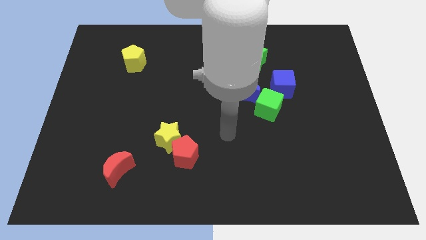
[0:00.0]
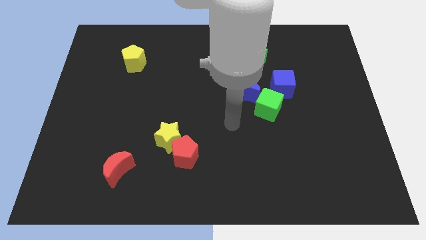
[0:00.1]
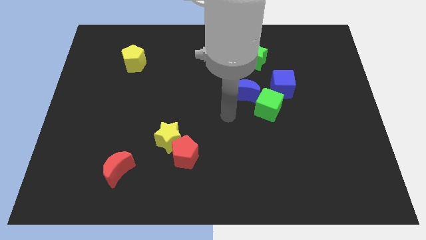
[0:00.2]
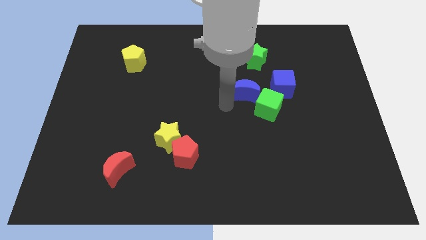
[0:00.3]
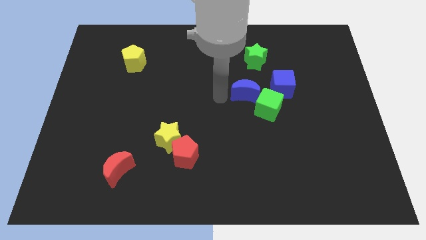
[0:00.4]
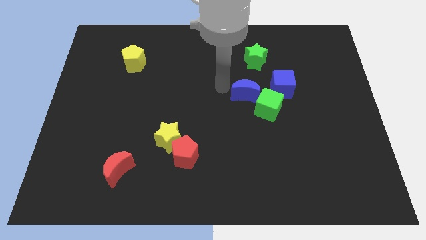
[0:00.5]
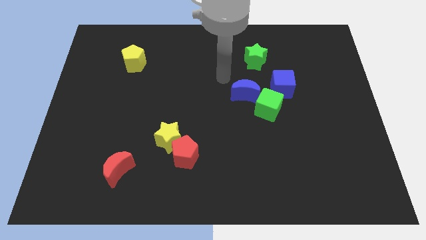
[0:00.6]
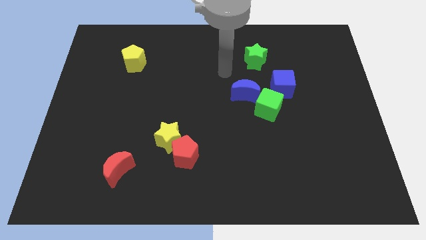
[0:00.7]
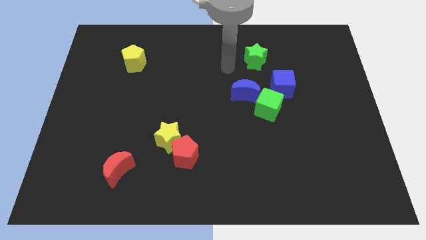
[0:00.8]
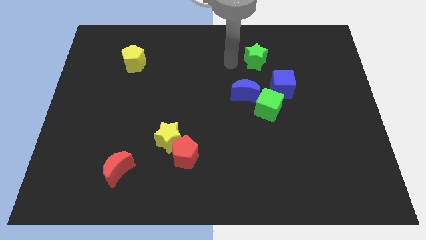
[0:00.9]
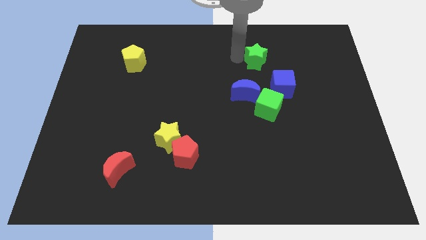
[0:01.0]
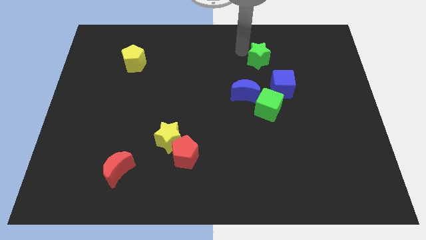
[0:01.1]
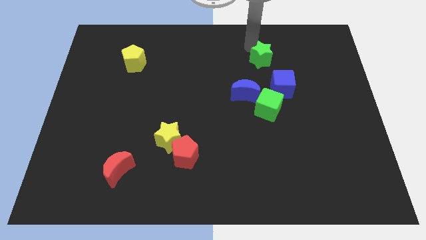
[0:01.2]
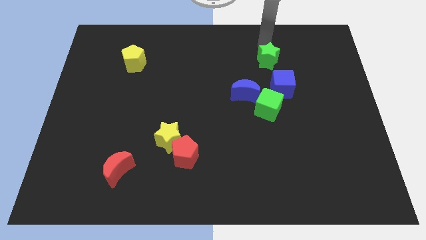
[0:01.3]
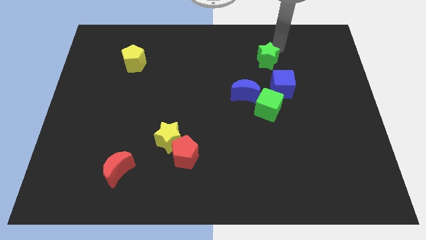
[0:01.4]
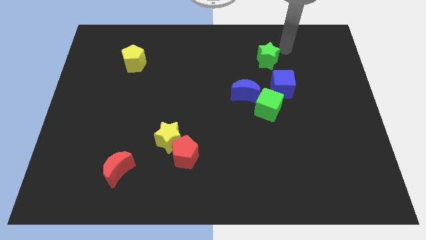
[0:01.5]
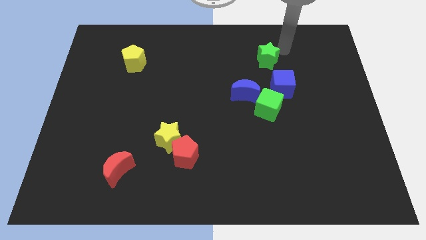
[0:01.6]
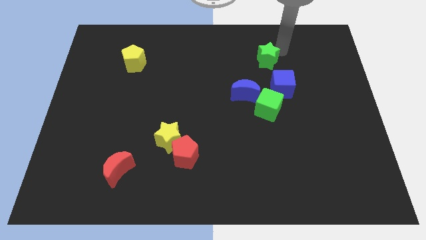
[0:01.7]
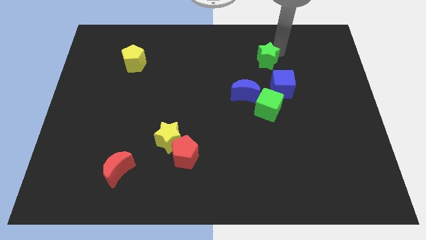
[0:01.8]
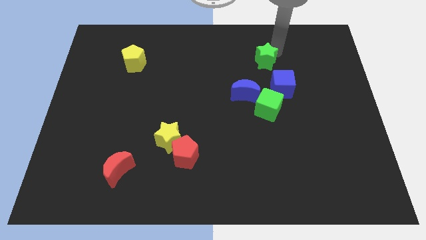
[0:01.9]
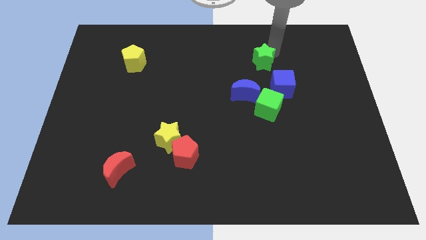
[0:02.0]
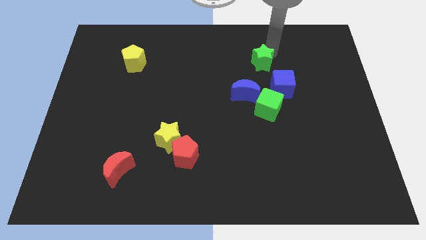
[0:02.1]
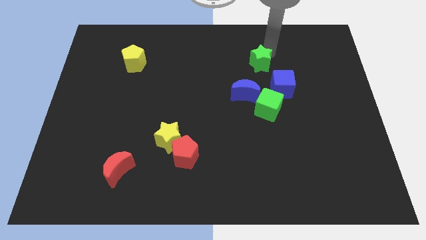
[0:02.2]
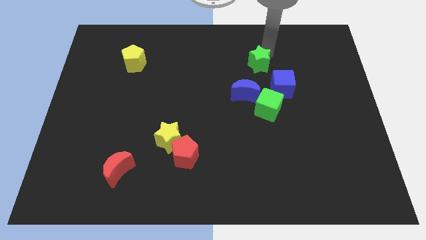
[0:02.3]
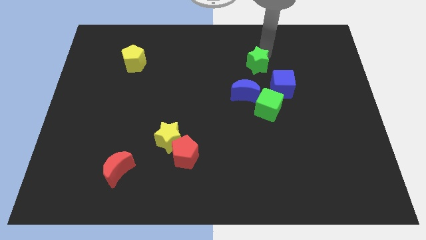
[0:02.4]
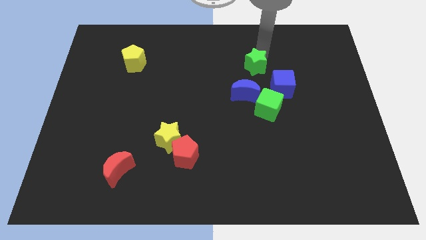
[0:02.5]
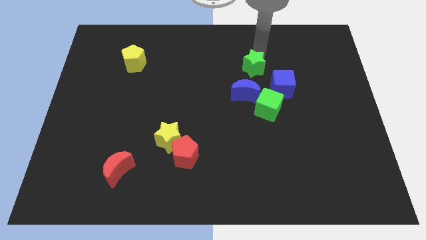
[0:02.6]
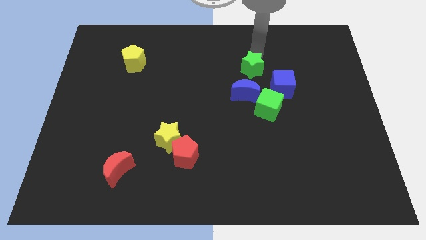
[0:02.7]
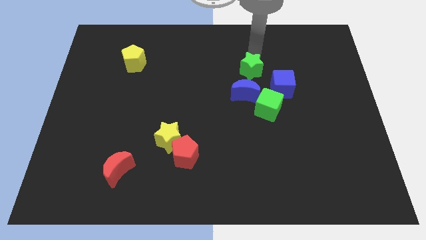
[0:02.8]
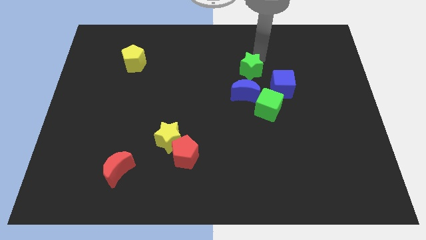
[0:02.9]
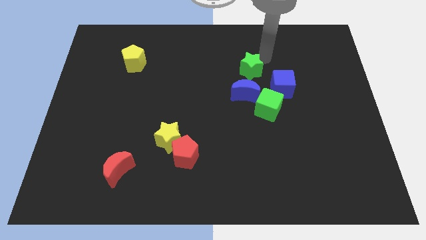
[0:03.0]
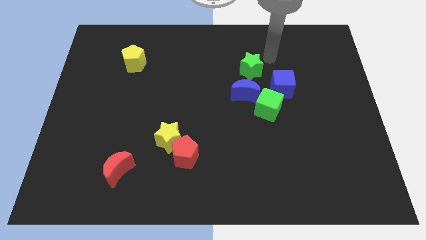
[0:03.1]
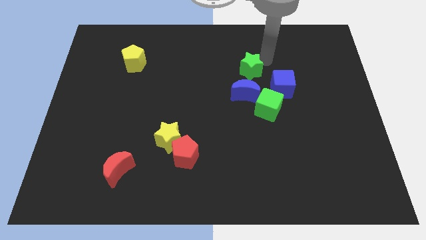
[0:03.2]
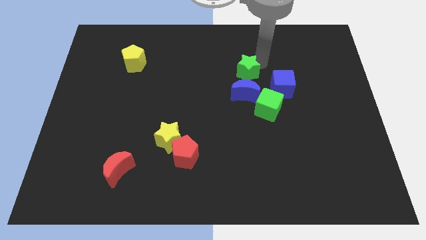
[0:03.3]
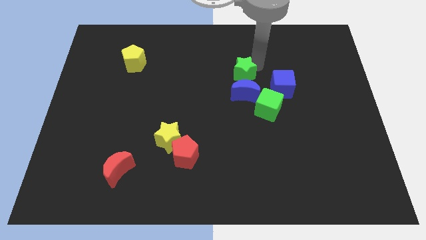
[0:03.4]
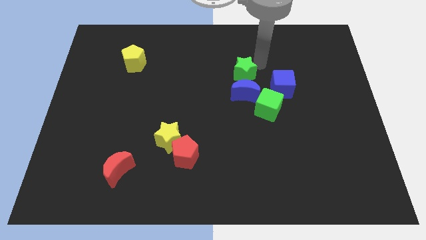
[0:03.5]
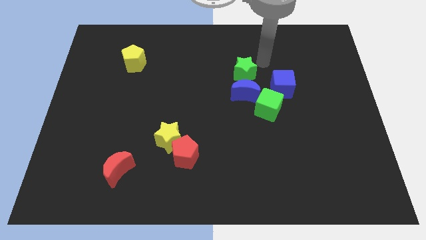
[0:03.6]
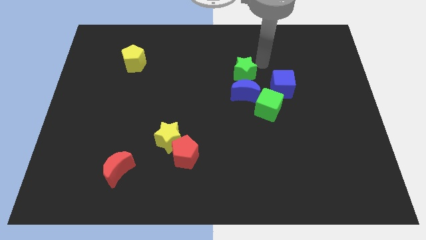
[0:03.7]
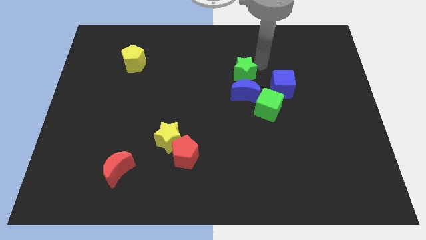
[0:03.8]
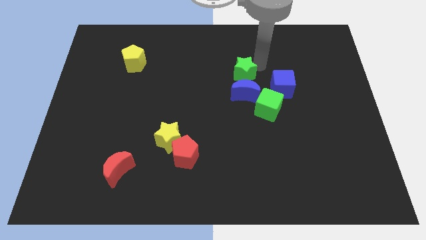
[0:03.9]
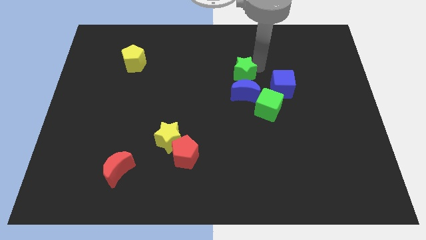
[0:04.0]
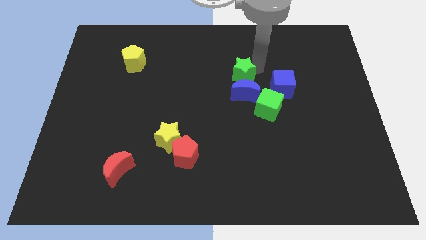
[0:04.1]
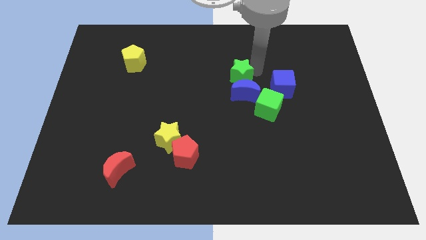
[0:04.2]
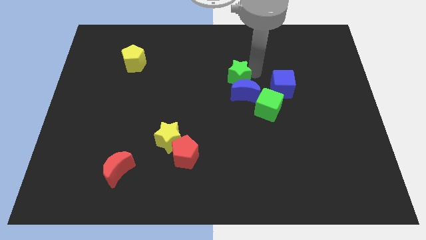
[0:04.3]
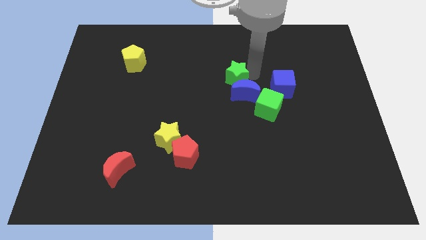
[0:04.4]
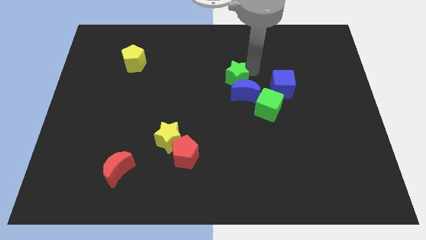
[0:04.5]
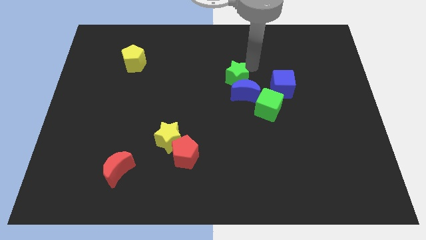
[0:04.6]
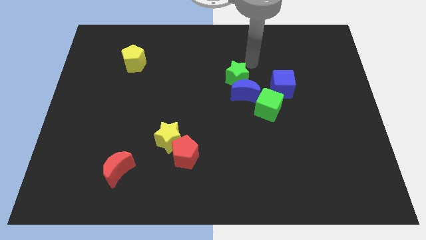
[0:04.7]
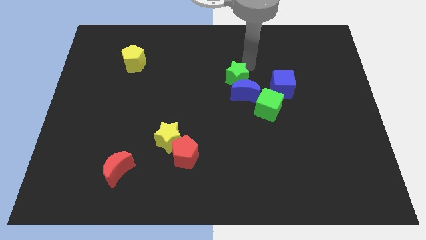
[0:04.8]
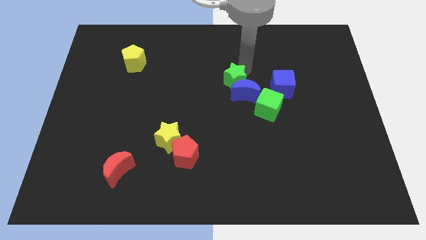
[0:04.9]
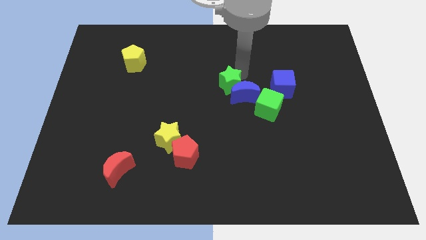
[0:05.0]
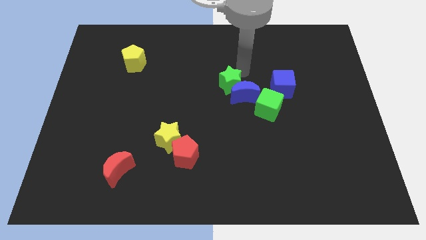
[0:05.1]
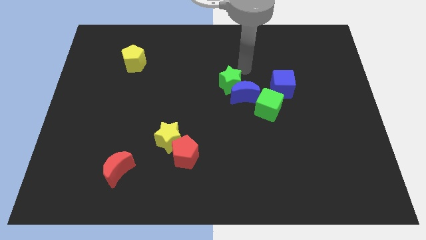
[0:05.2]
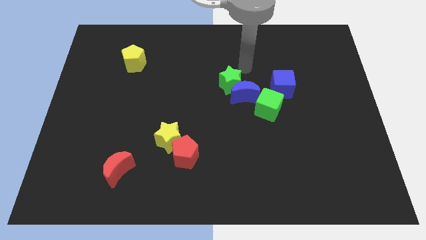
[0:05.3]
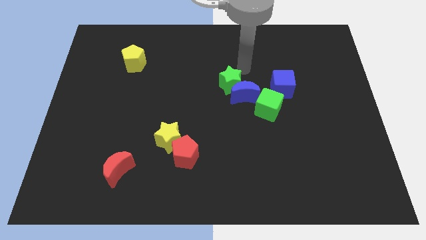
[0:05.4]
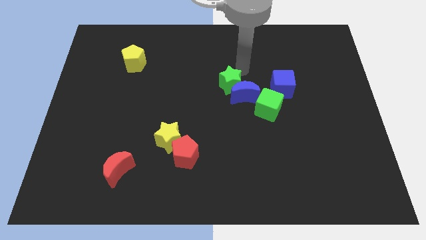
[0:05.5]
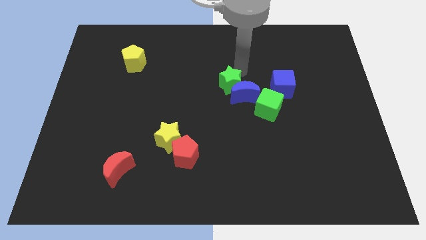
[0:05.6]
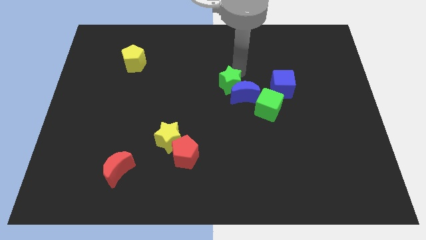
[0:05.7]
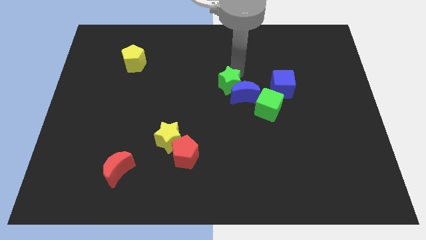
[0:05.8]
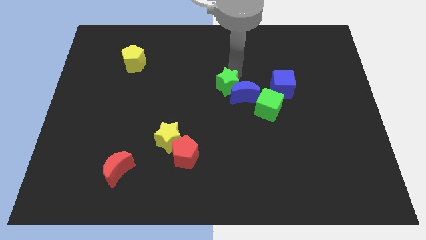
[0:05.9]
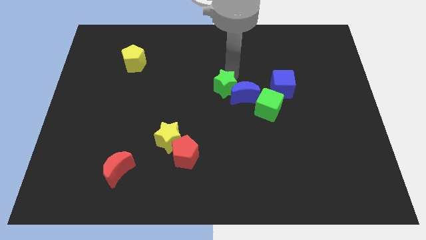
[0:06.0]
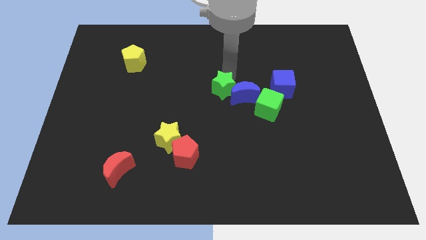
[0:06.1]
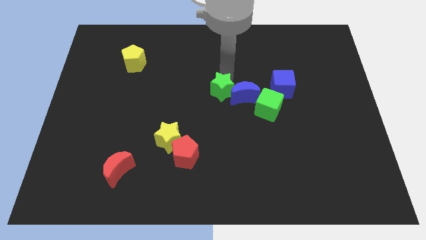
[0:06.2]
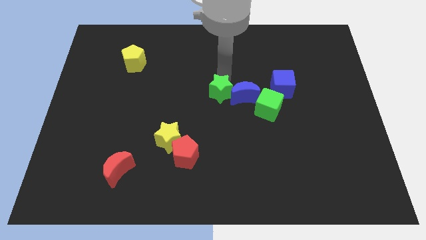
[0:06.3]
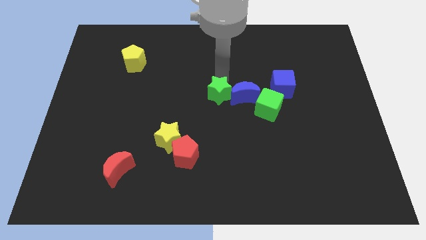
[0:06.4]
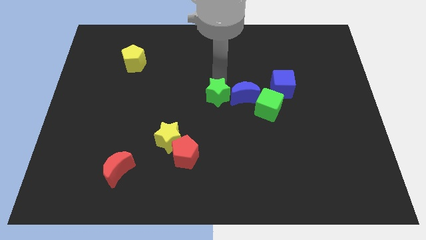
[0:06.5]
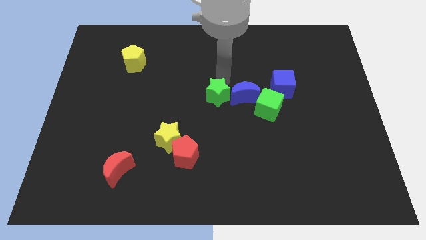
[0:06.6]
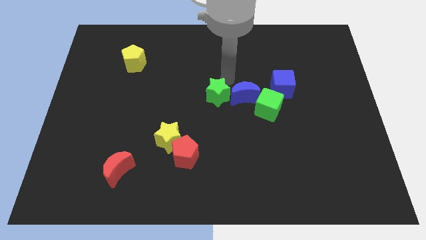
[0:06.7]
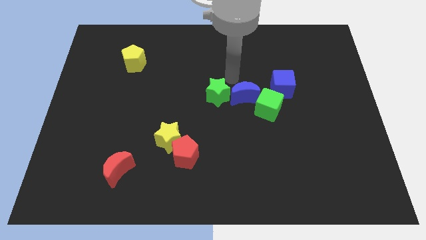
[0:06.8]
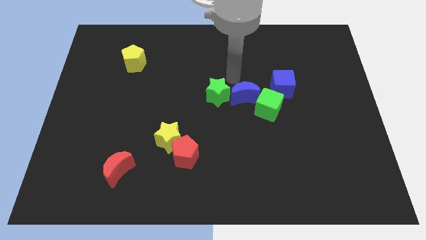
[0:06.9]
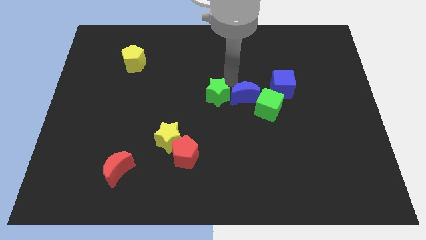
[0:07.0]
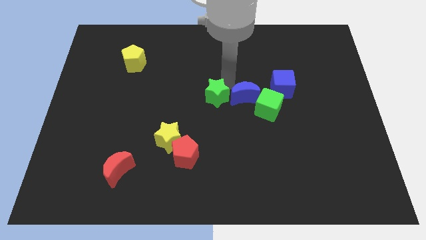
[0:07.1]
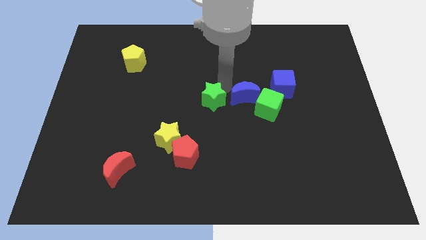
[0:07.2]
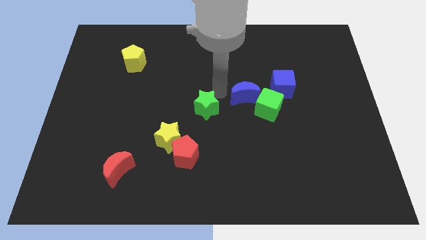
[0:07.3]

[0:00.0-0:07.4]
put the green star diagonally up and to the right of the yellow star
